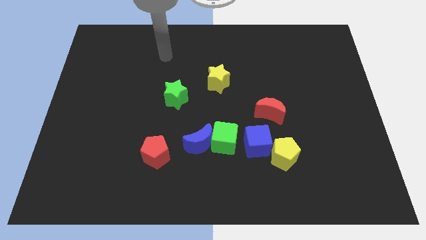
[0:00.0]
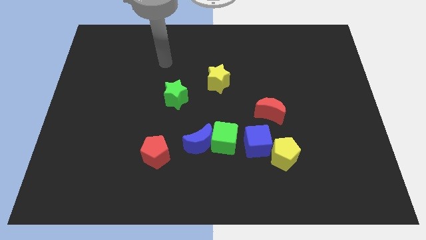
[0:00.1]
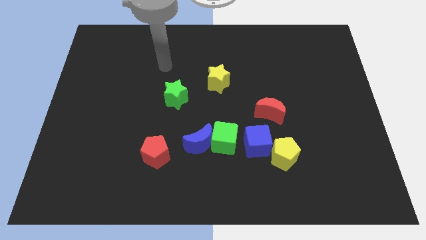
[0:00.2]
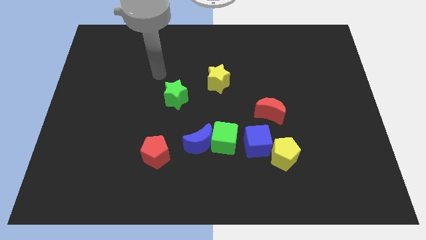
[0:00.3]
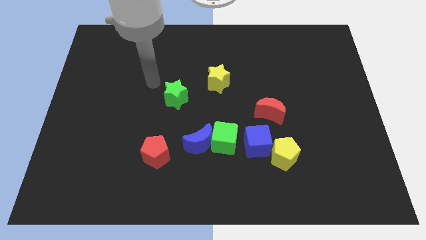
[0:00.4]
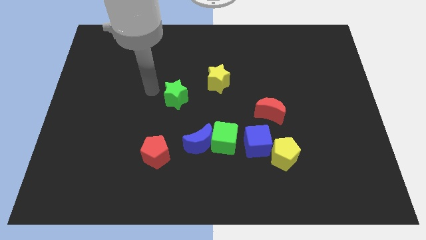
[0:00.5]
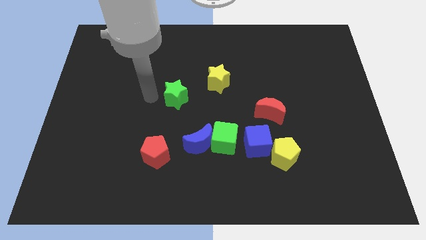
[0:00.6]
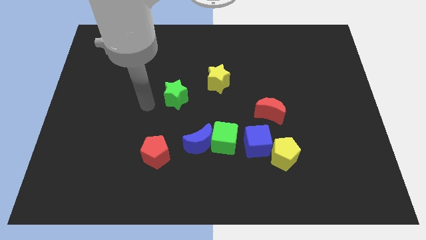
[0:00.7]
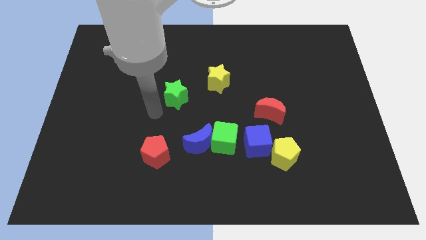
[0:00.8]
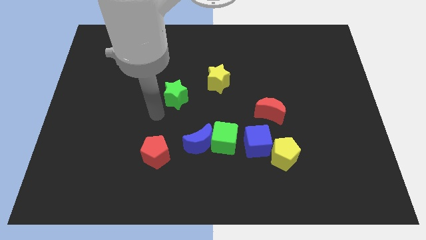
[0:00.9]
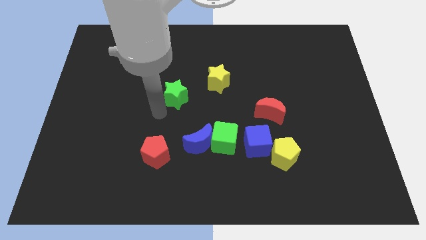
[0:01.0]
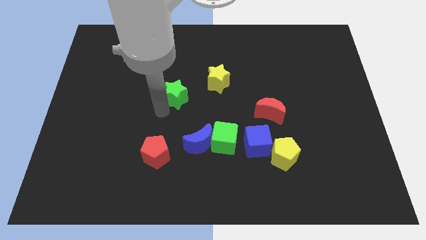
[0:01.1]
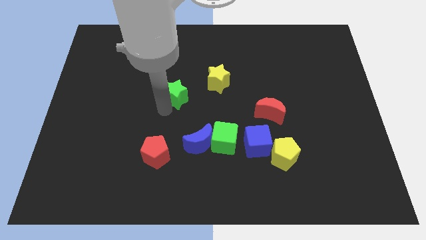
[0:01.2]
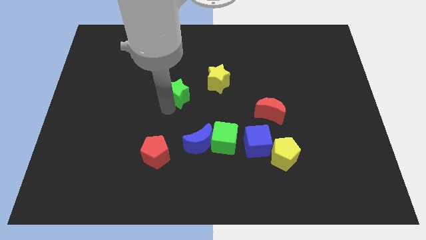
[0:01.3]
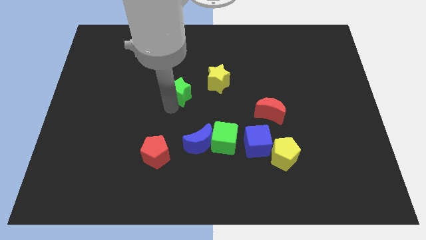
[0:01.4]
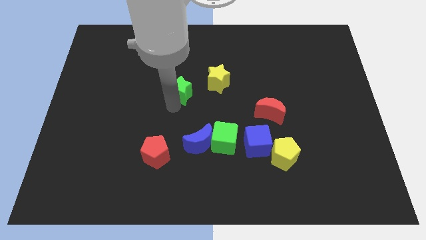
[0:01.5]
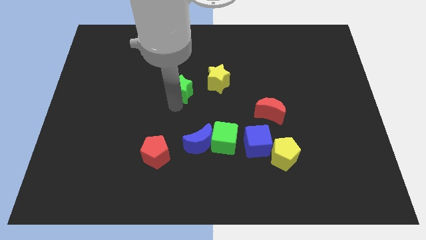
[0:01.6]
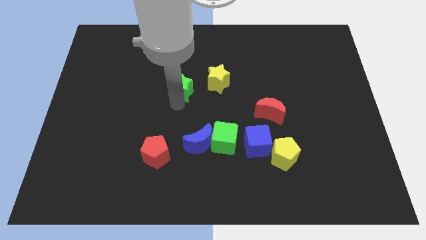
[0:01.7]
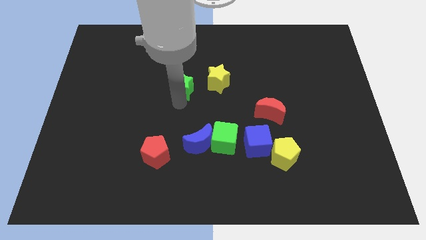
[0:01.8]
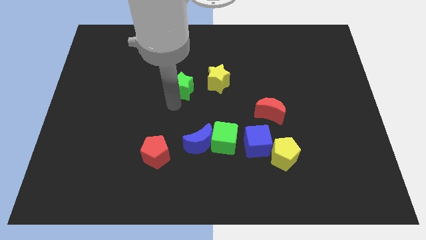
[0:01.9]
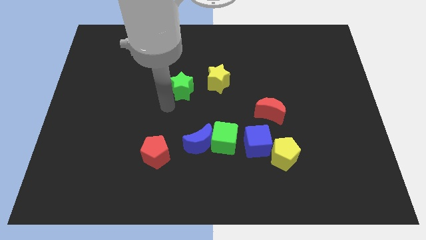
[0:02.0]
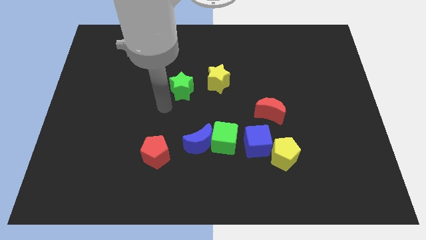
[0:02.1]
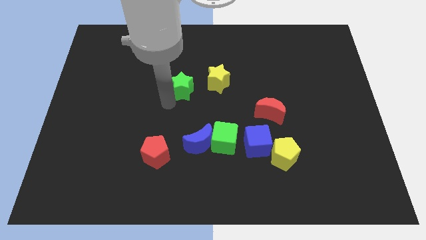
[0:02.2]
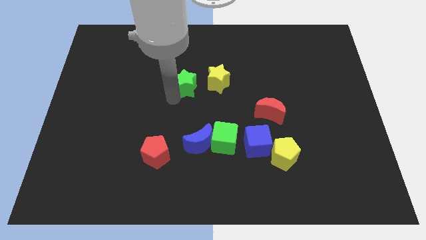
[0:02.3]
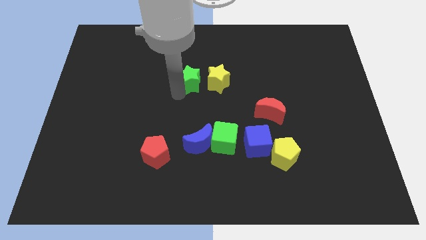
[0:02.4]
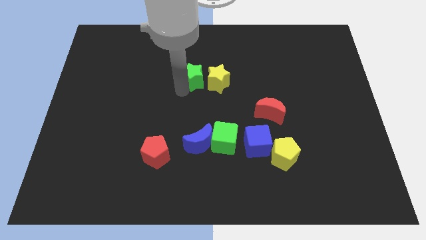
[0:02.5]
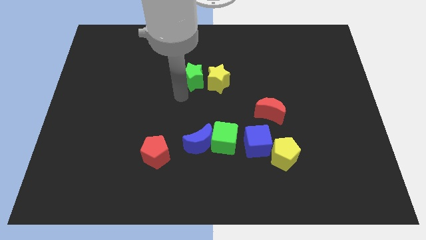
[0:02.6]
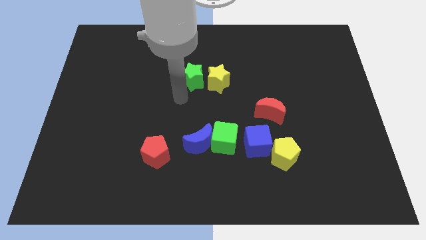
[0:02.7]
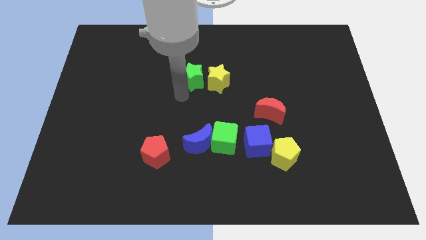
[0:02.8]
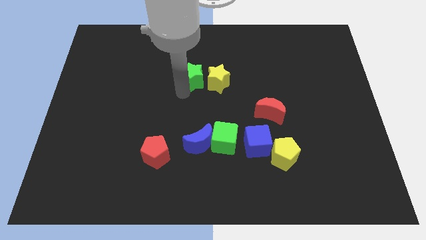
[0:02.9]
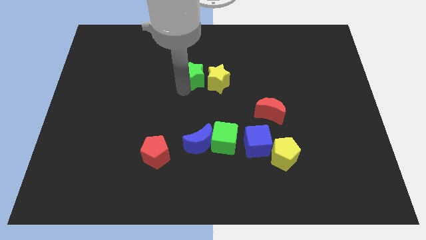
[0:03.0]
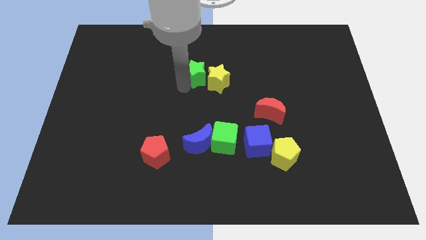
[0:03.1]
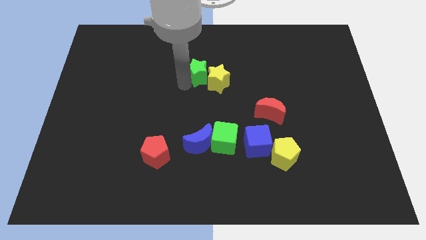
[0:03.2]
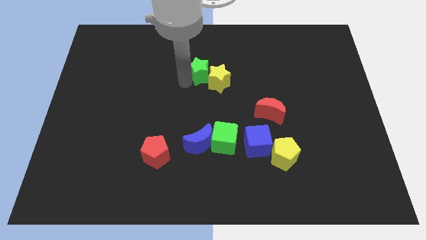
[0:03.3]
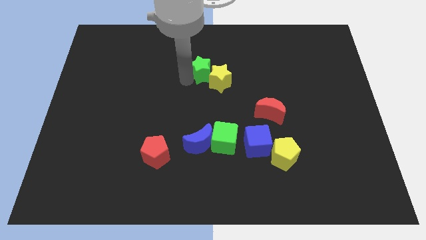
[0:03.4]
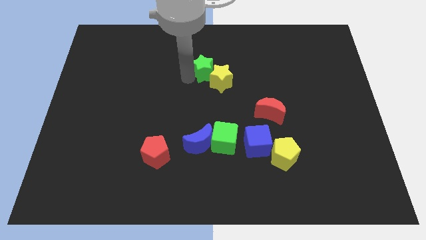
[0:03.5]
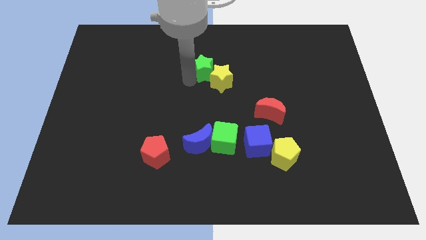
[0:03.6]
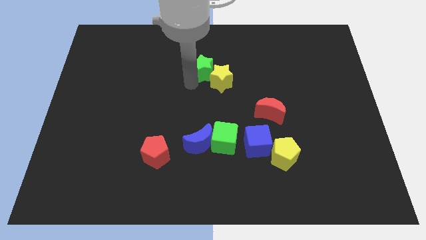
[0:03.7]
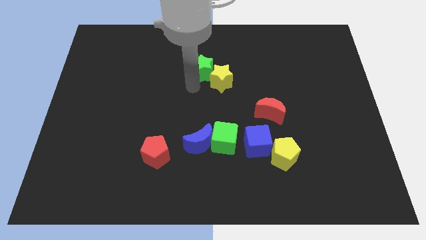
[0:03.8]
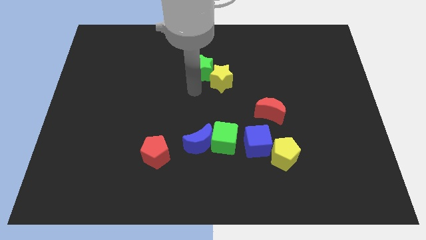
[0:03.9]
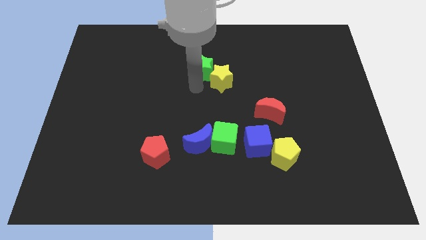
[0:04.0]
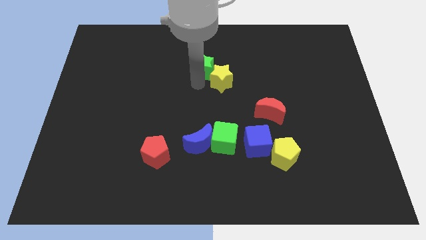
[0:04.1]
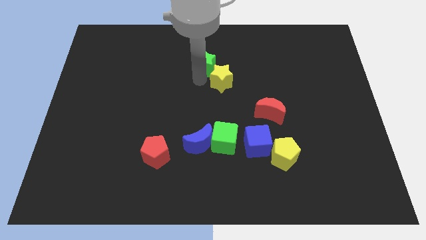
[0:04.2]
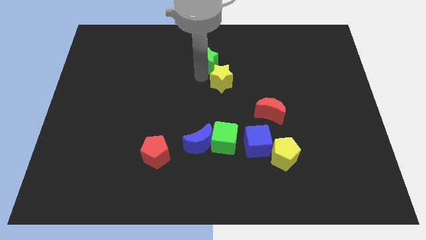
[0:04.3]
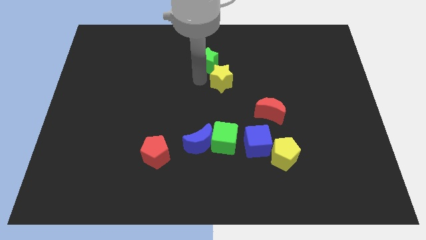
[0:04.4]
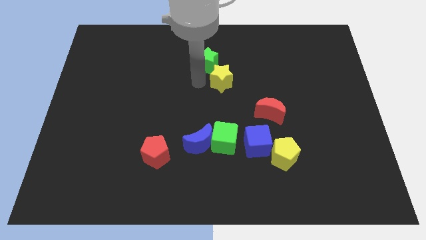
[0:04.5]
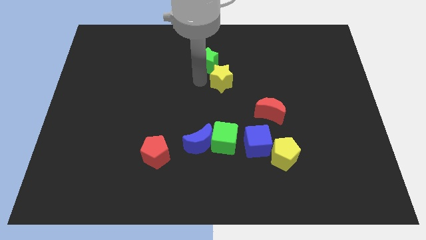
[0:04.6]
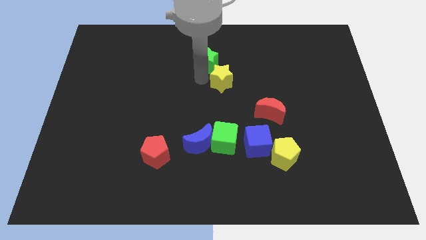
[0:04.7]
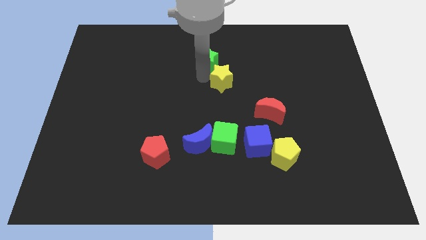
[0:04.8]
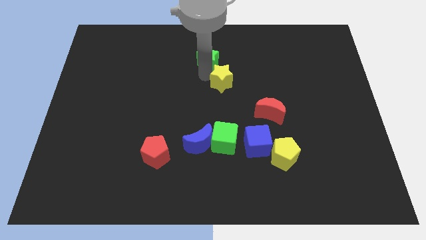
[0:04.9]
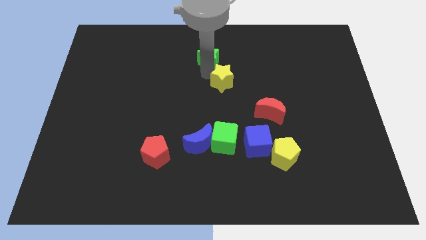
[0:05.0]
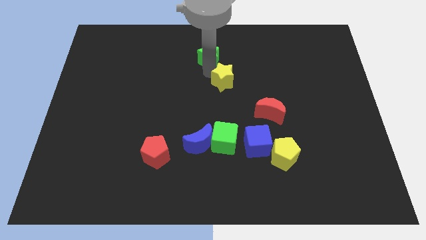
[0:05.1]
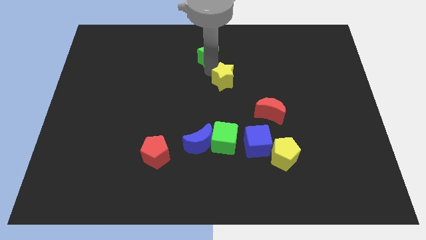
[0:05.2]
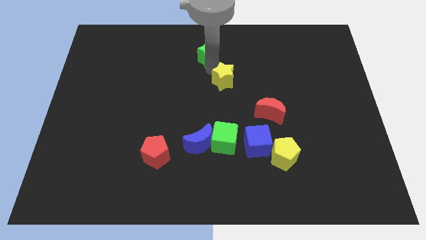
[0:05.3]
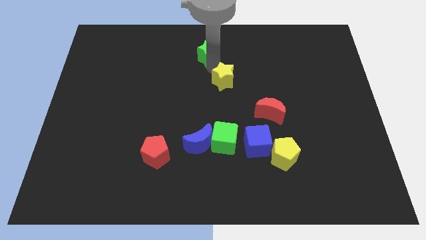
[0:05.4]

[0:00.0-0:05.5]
push the green star to the towards your base

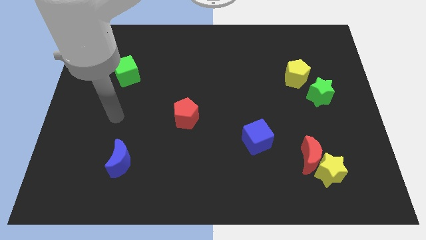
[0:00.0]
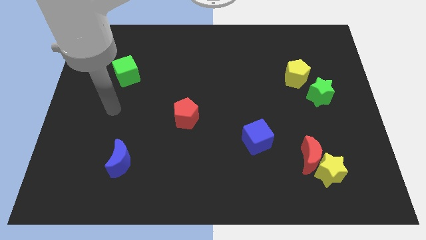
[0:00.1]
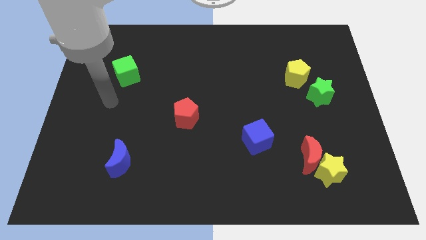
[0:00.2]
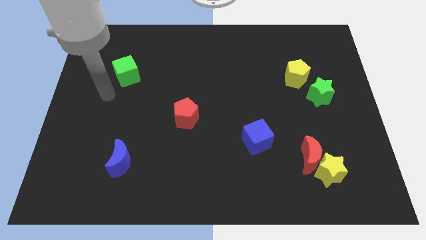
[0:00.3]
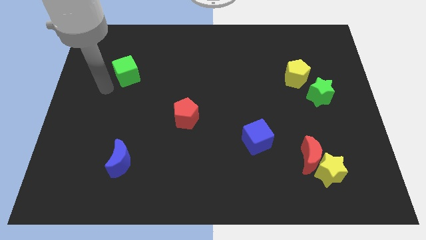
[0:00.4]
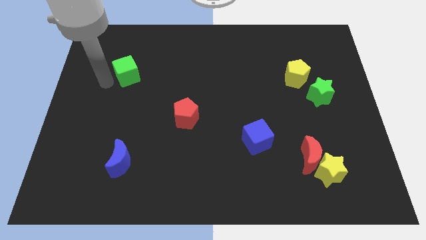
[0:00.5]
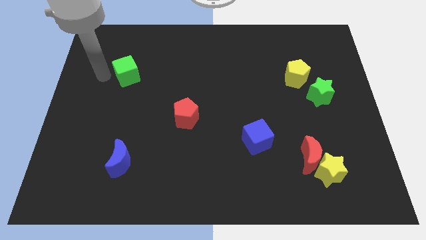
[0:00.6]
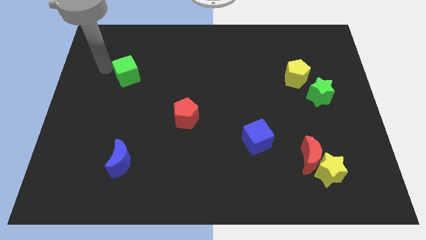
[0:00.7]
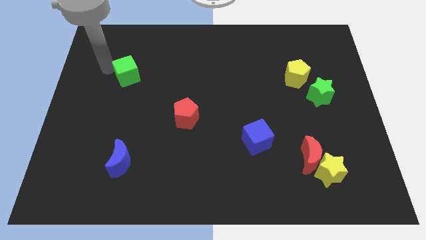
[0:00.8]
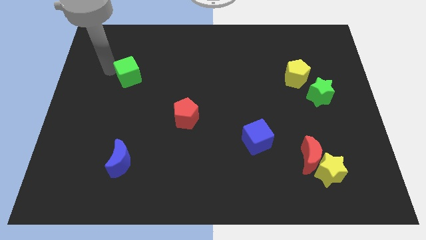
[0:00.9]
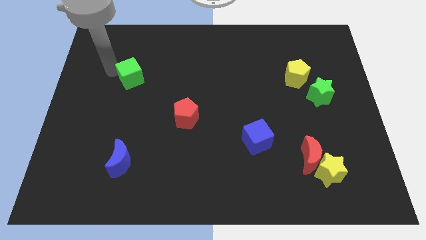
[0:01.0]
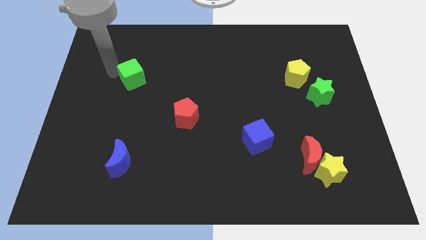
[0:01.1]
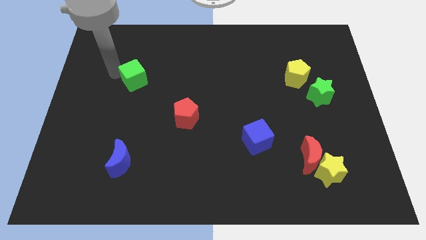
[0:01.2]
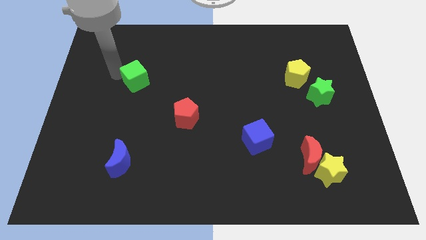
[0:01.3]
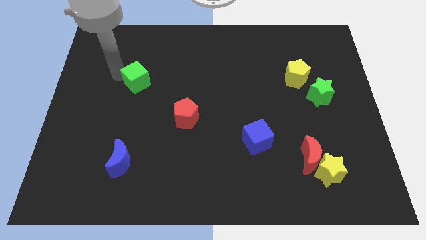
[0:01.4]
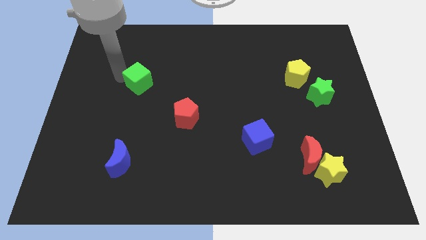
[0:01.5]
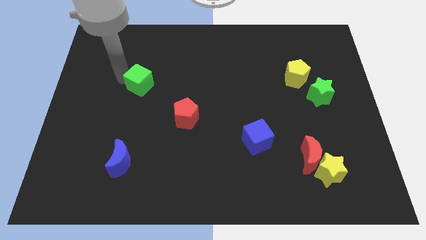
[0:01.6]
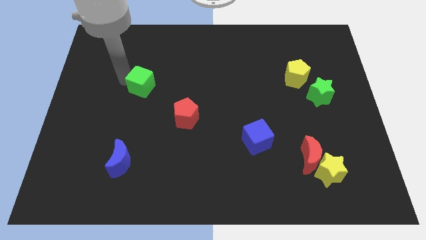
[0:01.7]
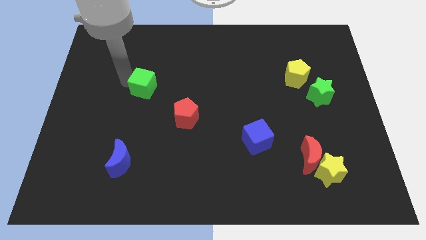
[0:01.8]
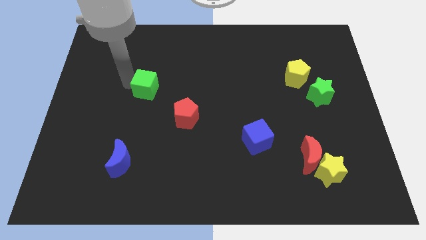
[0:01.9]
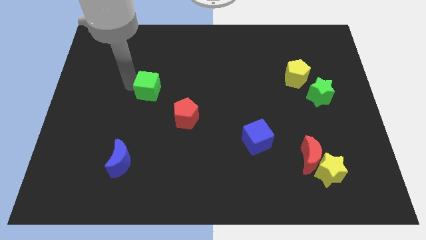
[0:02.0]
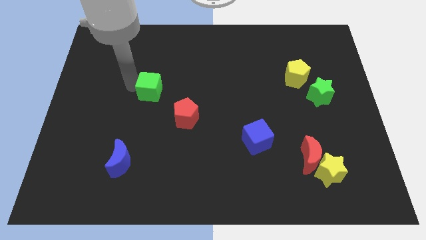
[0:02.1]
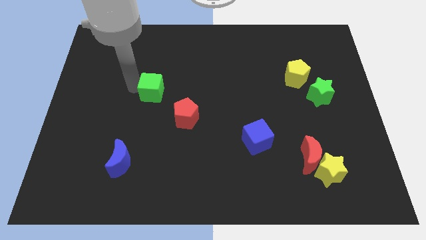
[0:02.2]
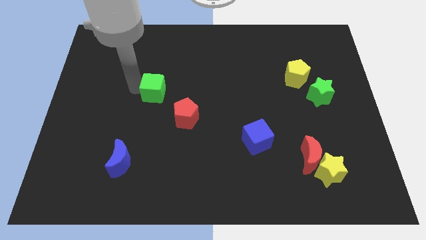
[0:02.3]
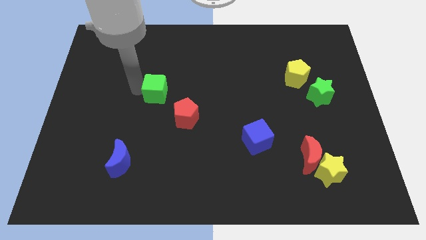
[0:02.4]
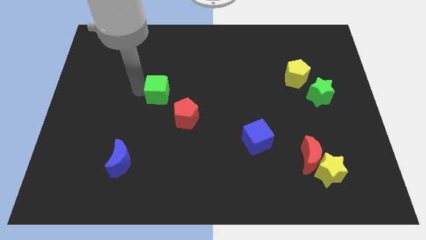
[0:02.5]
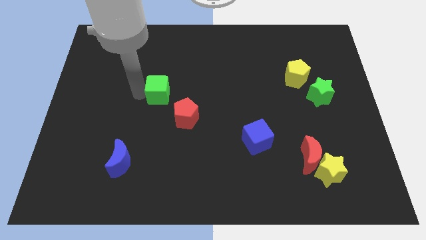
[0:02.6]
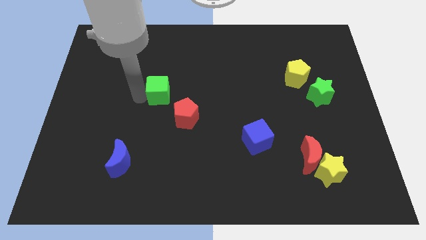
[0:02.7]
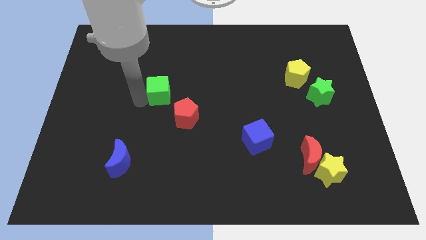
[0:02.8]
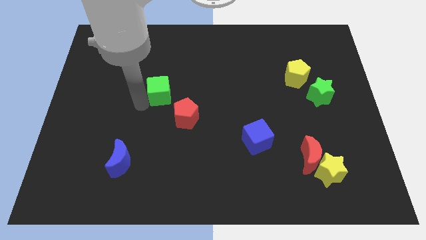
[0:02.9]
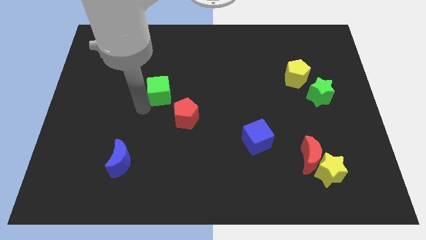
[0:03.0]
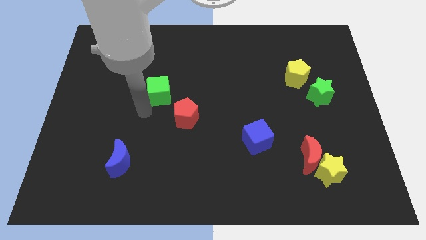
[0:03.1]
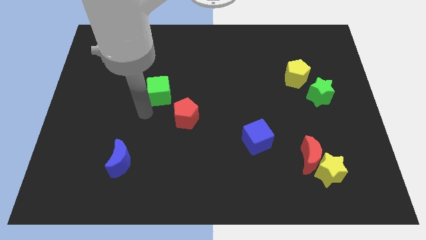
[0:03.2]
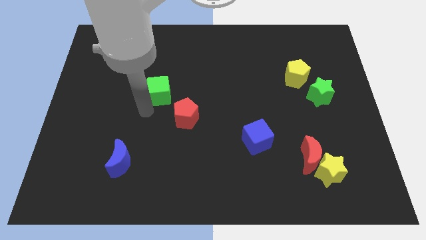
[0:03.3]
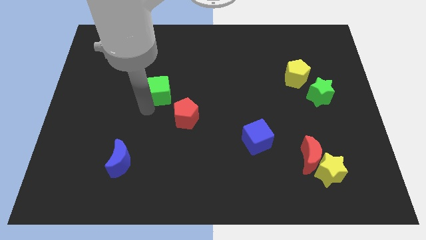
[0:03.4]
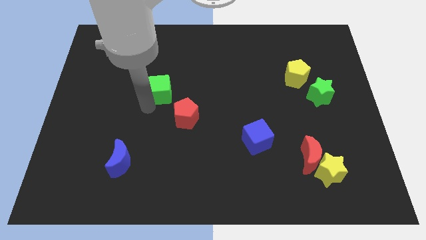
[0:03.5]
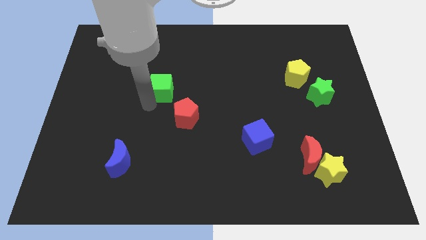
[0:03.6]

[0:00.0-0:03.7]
put the green cube to the middle of the board
